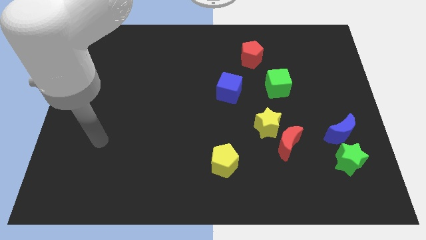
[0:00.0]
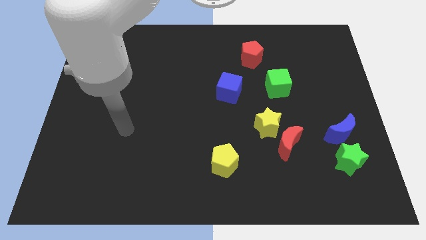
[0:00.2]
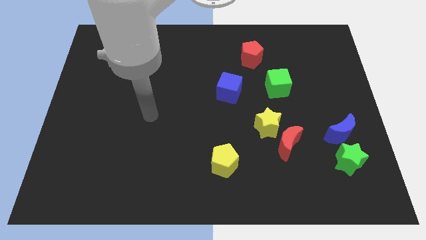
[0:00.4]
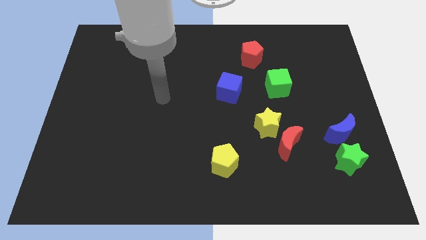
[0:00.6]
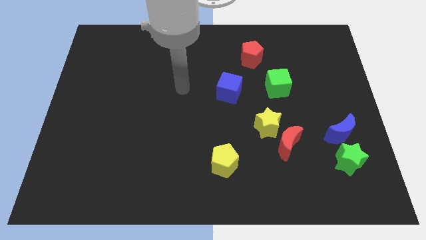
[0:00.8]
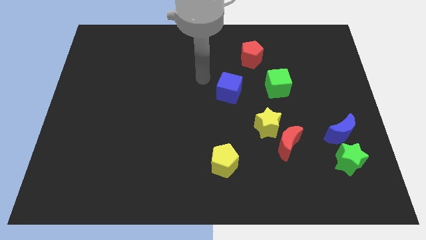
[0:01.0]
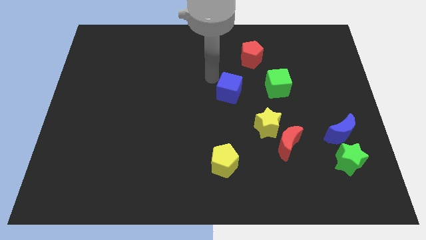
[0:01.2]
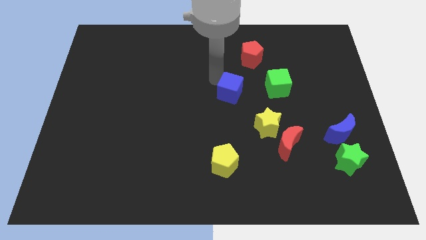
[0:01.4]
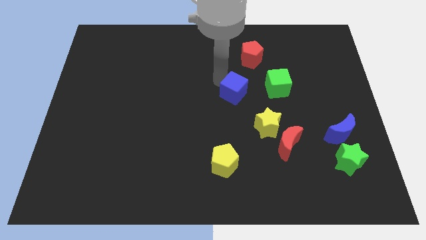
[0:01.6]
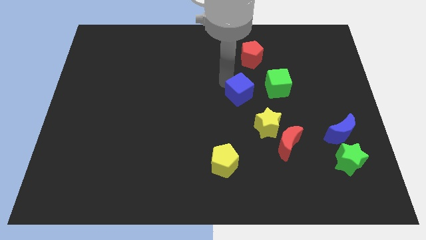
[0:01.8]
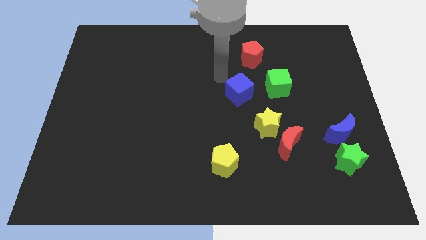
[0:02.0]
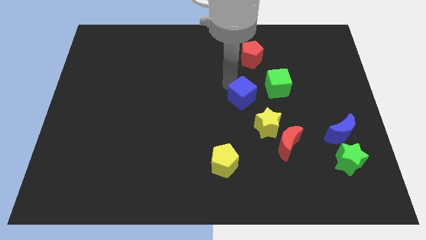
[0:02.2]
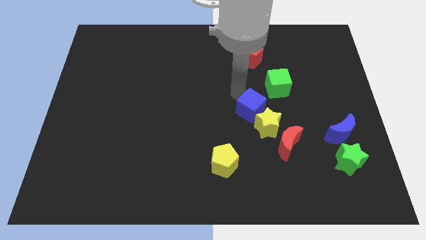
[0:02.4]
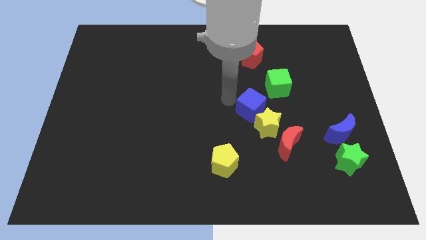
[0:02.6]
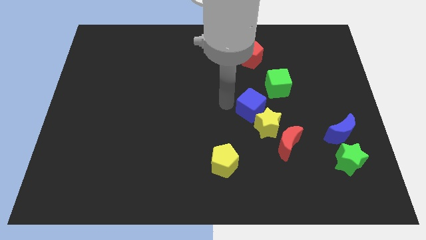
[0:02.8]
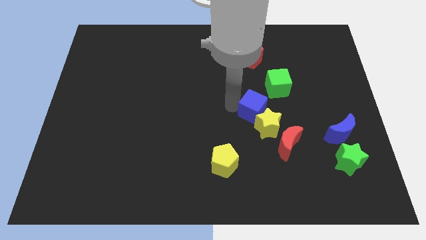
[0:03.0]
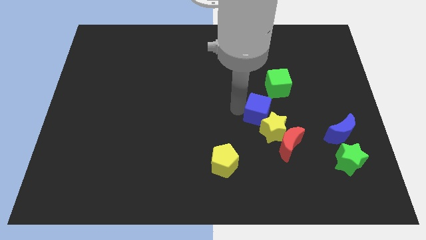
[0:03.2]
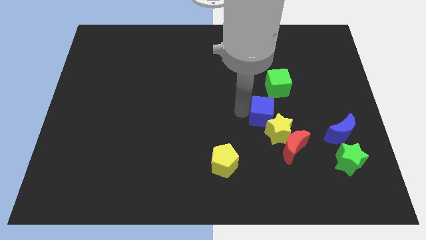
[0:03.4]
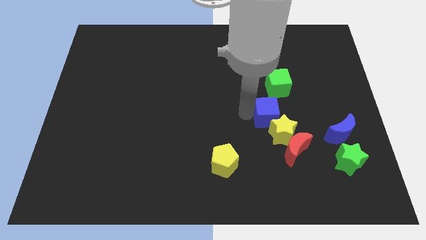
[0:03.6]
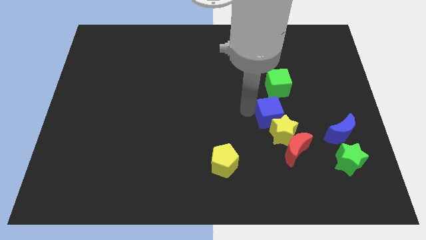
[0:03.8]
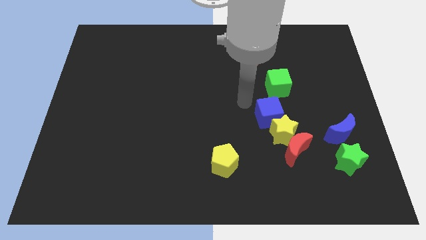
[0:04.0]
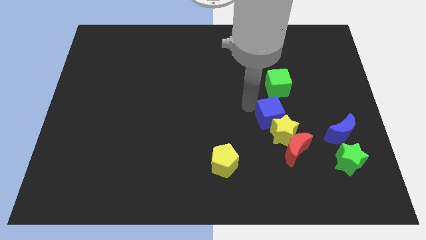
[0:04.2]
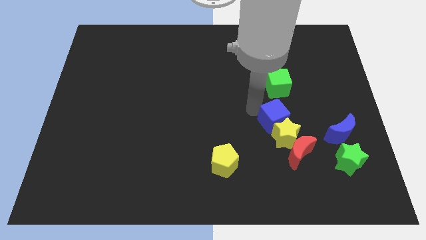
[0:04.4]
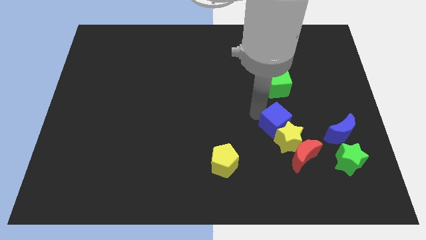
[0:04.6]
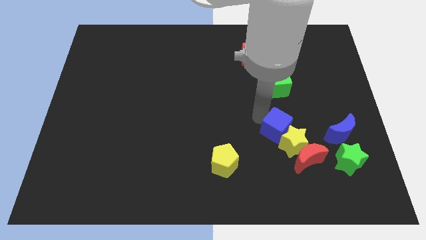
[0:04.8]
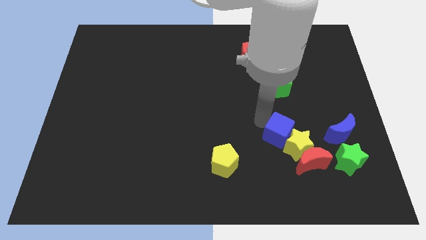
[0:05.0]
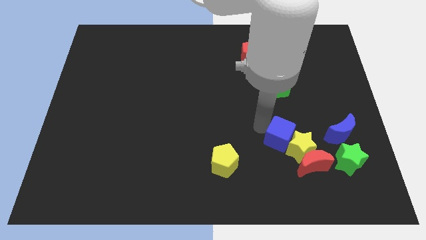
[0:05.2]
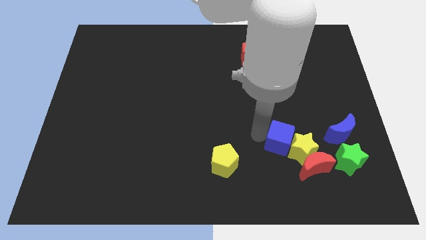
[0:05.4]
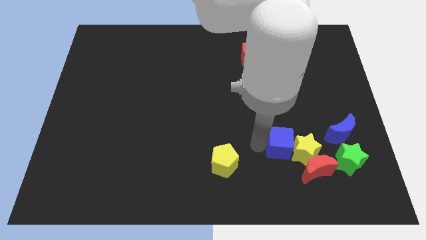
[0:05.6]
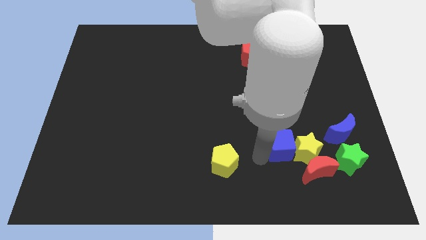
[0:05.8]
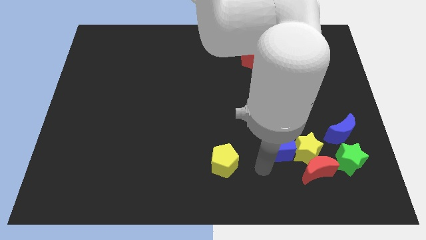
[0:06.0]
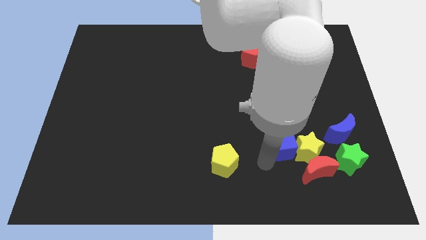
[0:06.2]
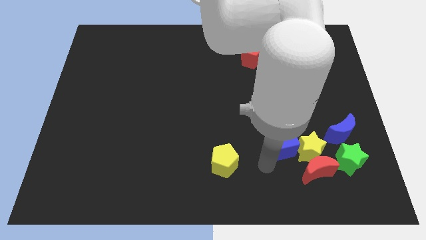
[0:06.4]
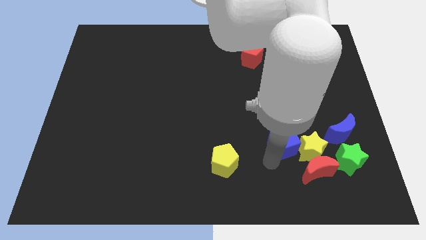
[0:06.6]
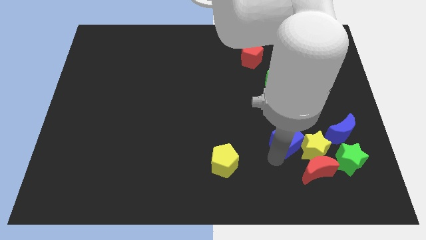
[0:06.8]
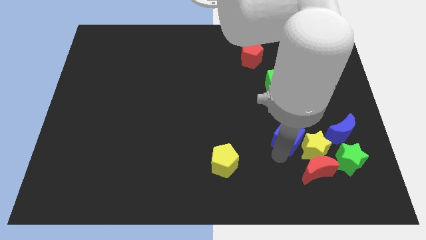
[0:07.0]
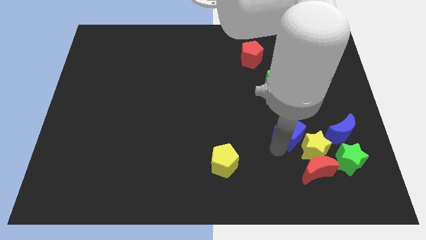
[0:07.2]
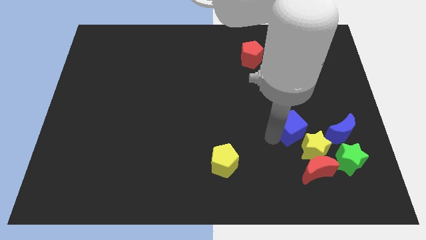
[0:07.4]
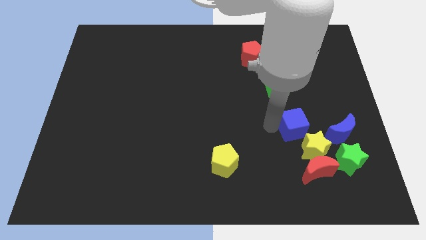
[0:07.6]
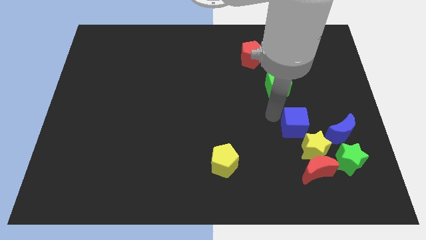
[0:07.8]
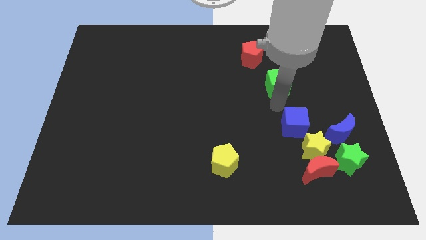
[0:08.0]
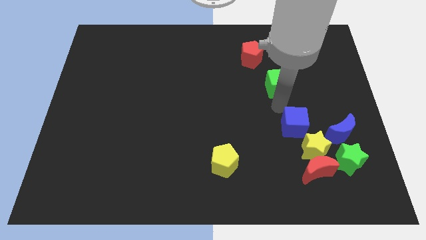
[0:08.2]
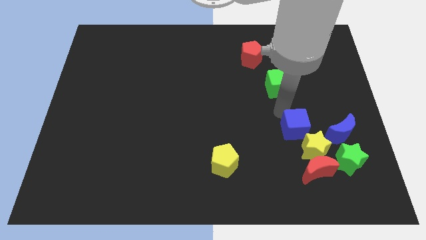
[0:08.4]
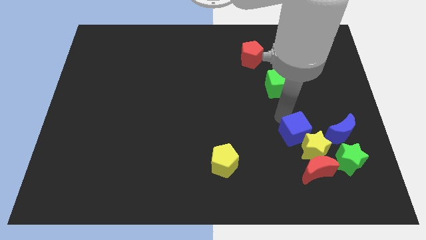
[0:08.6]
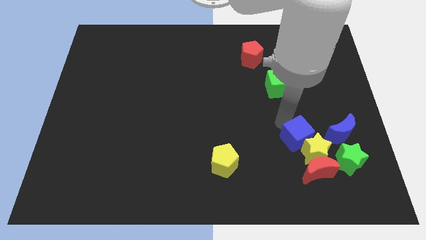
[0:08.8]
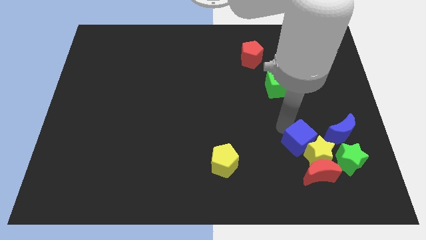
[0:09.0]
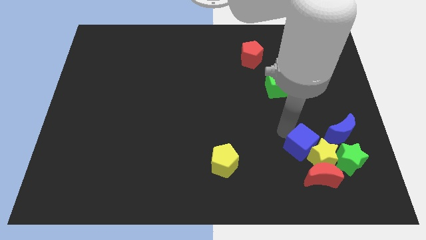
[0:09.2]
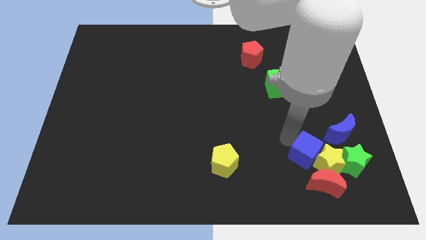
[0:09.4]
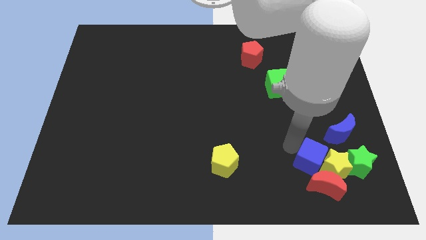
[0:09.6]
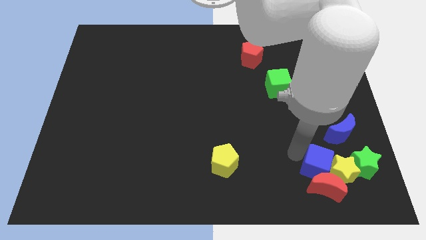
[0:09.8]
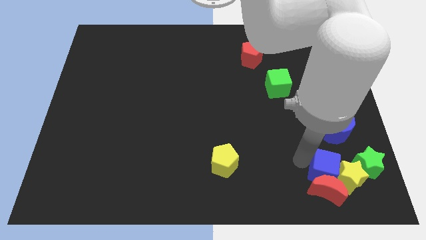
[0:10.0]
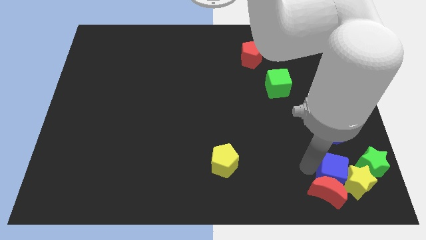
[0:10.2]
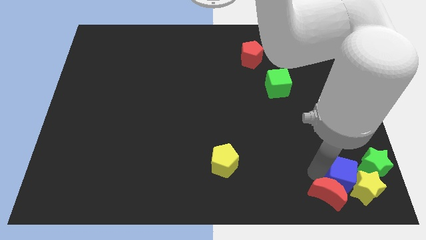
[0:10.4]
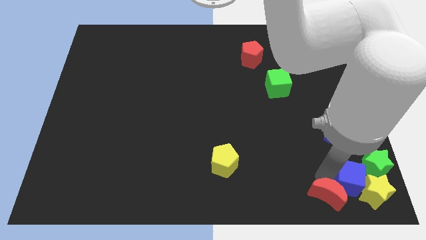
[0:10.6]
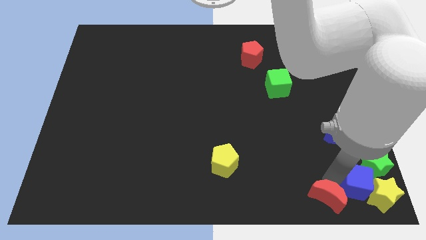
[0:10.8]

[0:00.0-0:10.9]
push the blue cube to the green star

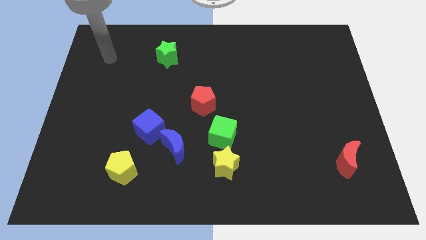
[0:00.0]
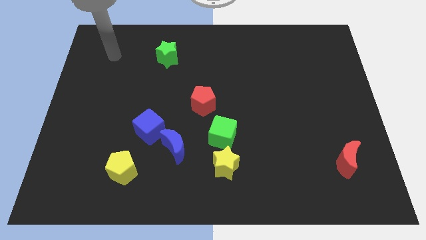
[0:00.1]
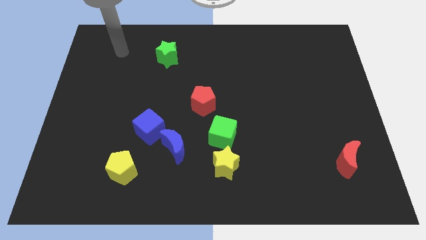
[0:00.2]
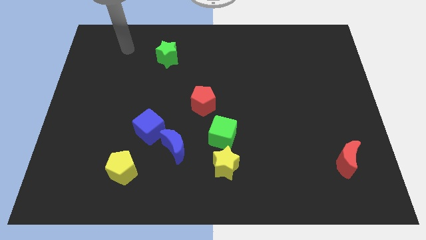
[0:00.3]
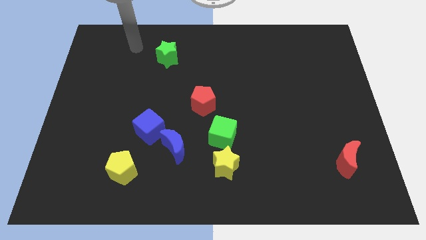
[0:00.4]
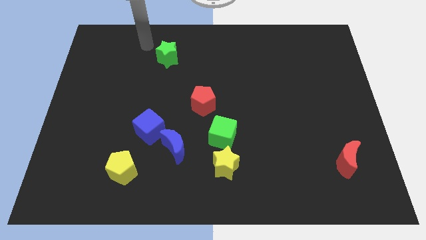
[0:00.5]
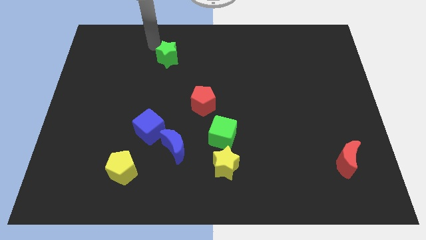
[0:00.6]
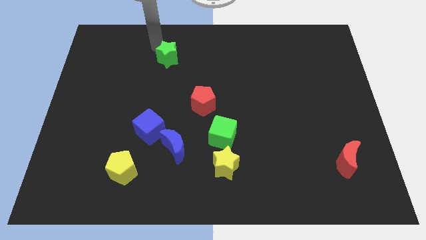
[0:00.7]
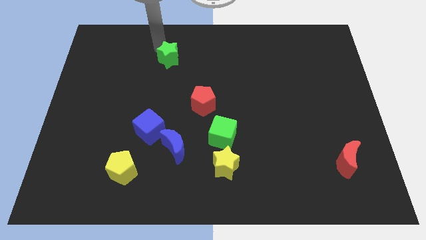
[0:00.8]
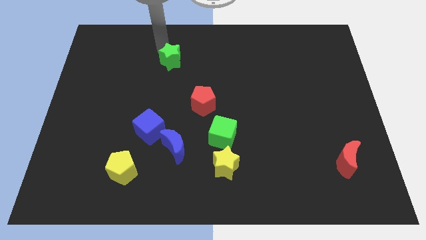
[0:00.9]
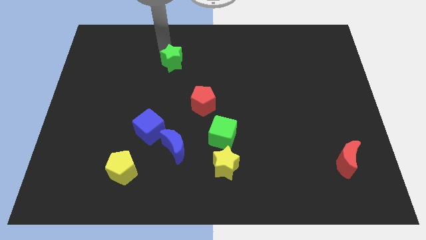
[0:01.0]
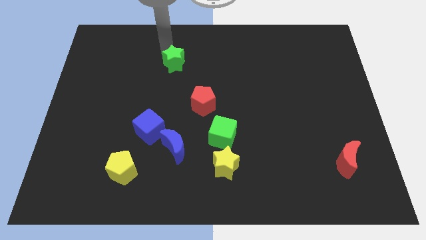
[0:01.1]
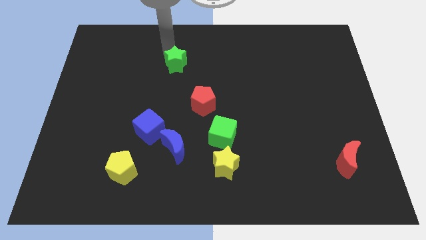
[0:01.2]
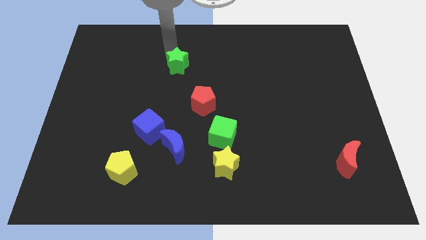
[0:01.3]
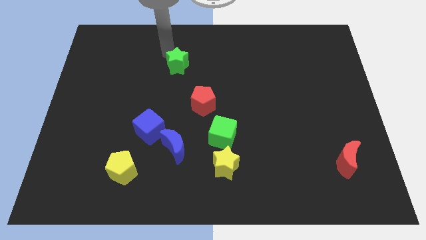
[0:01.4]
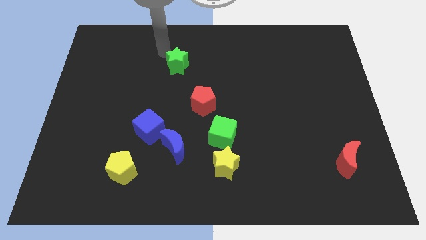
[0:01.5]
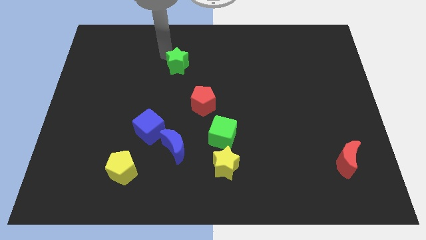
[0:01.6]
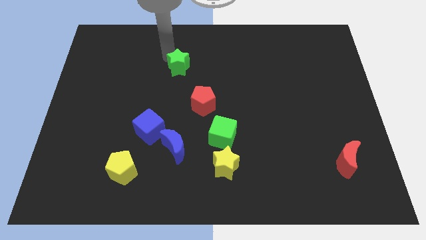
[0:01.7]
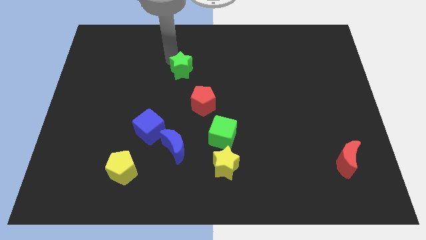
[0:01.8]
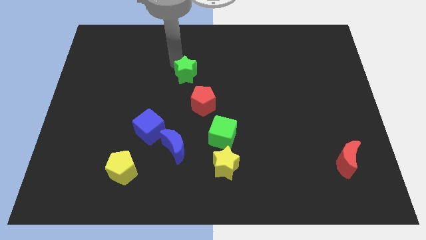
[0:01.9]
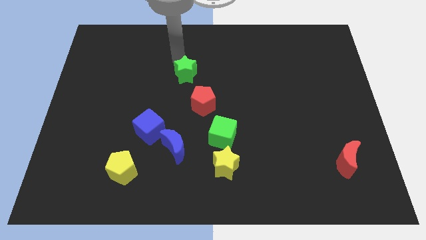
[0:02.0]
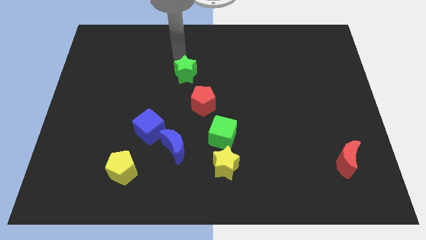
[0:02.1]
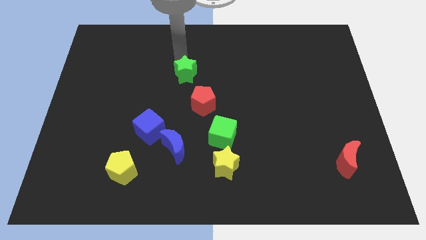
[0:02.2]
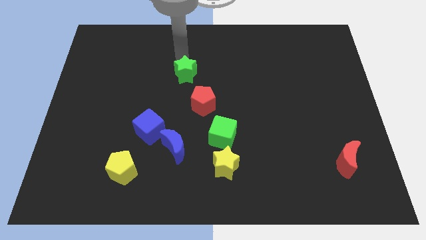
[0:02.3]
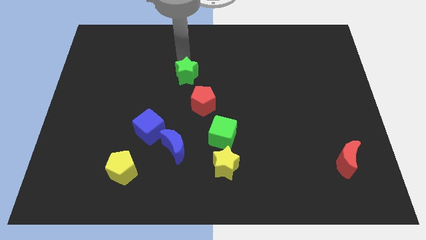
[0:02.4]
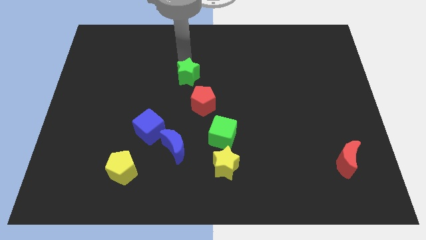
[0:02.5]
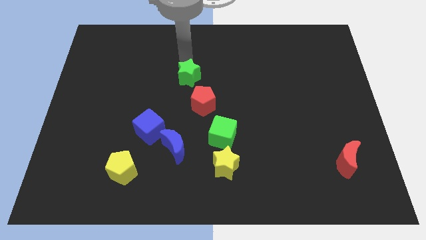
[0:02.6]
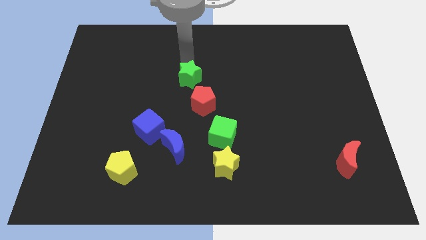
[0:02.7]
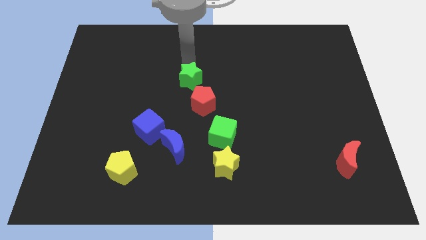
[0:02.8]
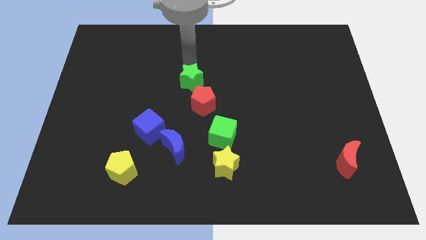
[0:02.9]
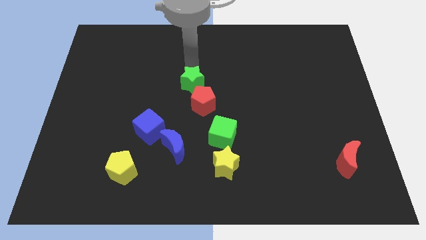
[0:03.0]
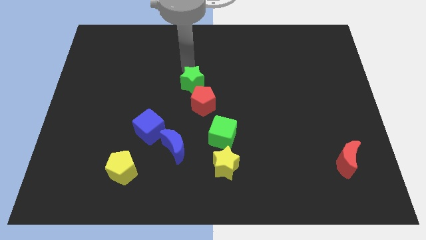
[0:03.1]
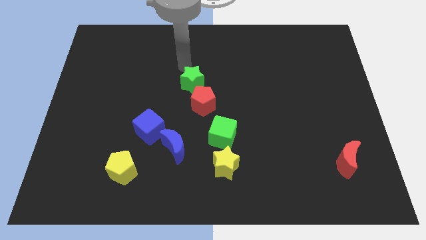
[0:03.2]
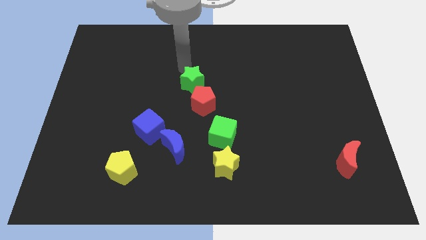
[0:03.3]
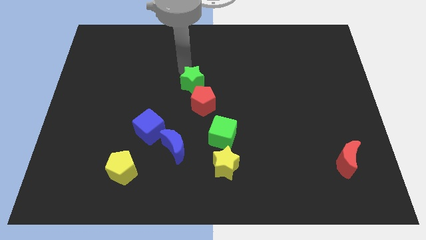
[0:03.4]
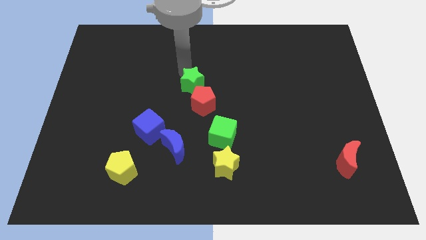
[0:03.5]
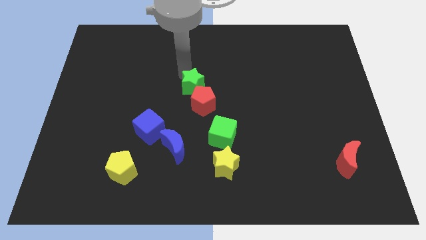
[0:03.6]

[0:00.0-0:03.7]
put the green star close to the red pentagon
